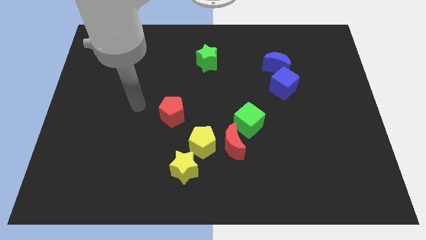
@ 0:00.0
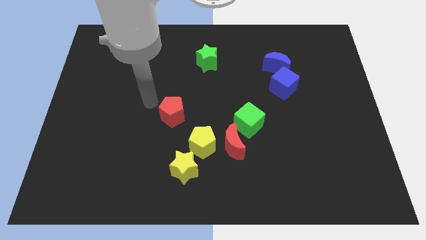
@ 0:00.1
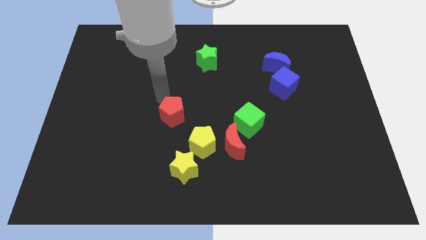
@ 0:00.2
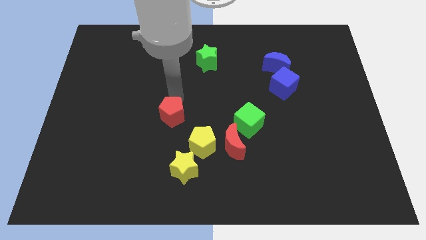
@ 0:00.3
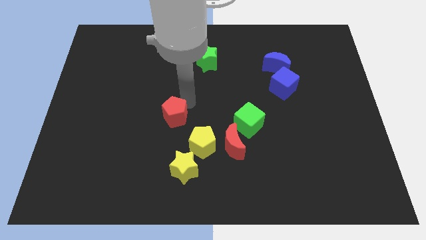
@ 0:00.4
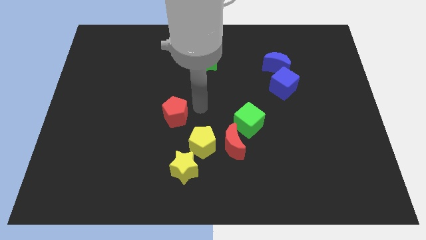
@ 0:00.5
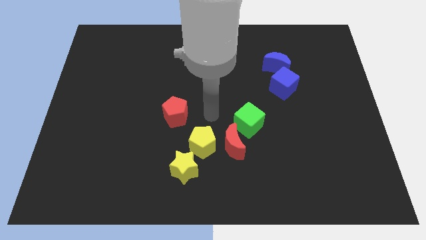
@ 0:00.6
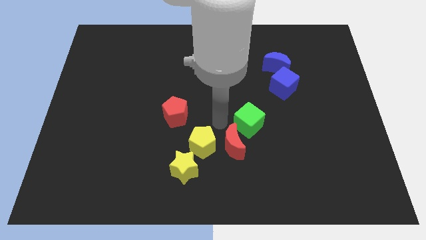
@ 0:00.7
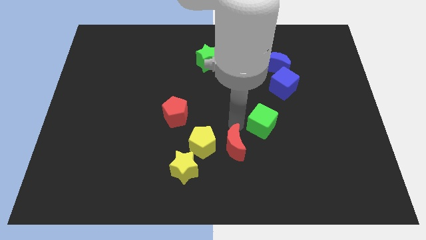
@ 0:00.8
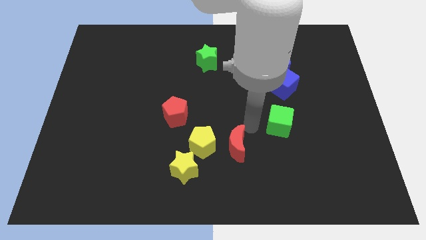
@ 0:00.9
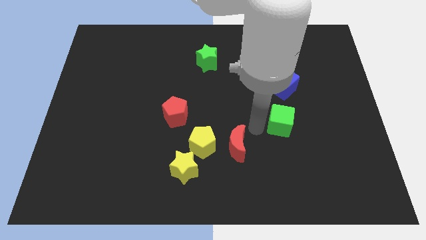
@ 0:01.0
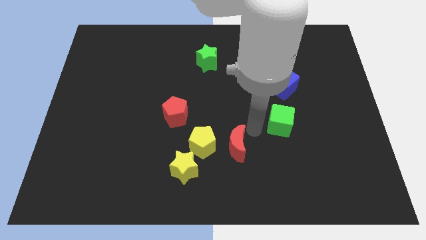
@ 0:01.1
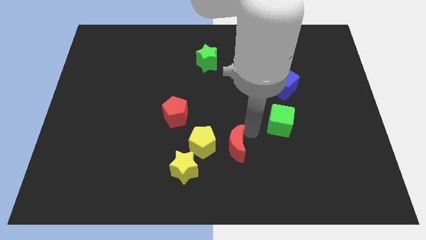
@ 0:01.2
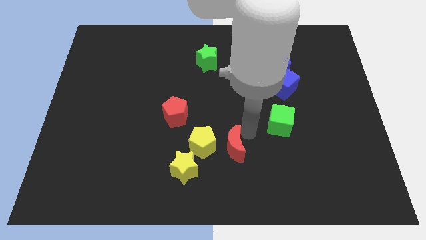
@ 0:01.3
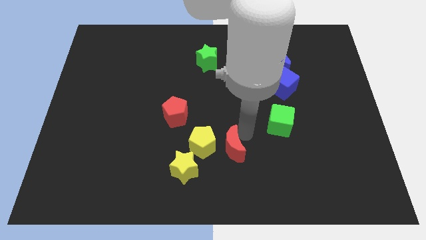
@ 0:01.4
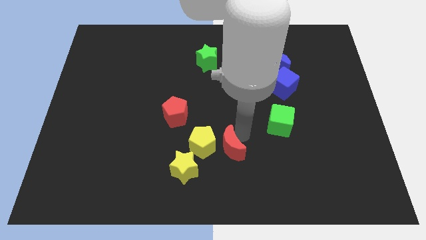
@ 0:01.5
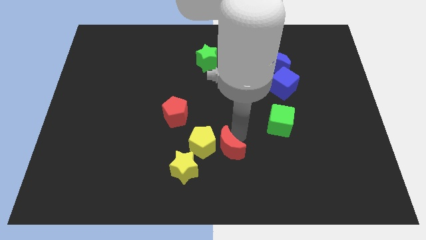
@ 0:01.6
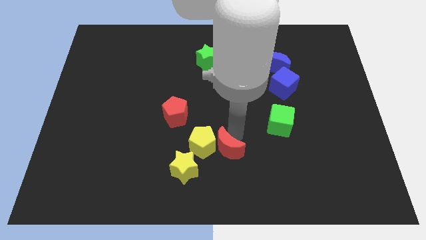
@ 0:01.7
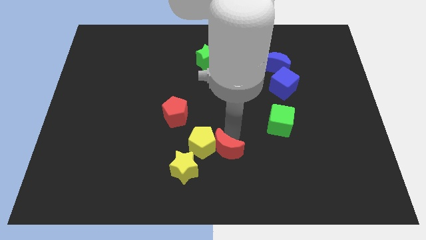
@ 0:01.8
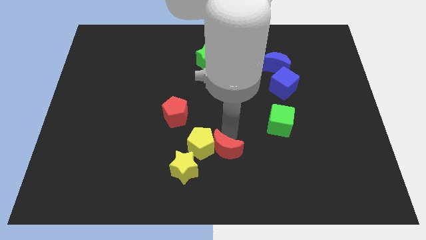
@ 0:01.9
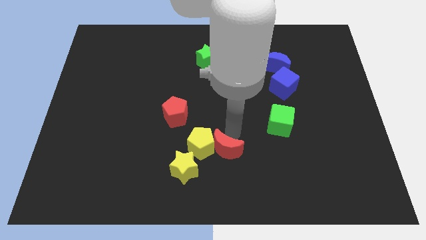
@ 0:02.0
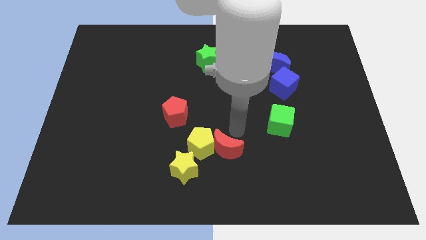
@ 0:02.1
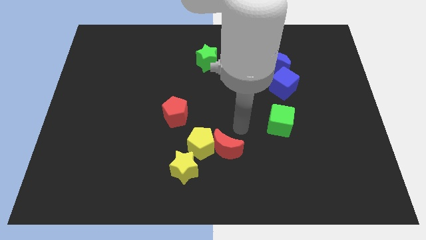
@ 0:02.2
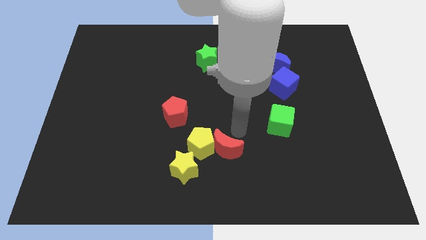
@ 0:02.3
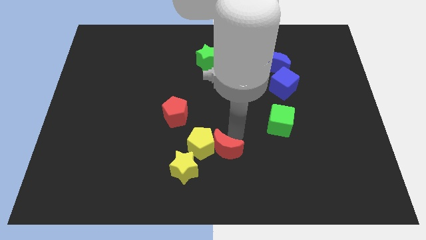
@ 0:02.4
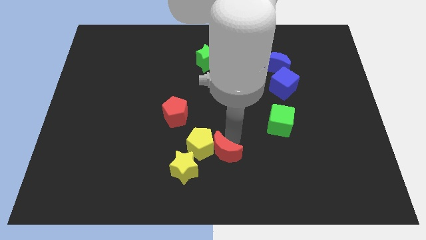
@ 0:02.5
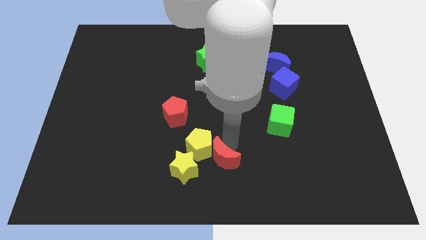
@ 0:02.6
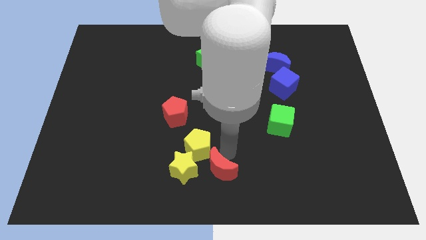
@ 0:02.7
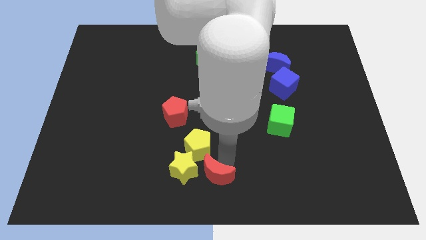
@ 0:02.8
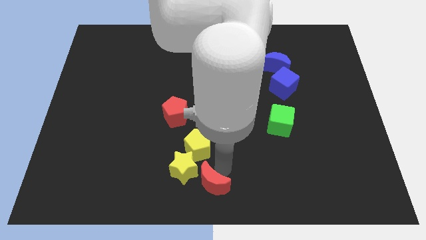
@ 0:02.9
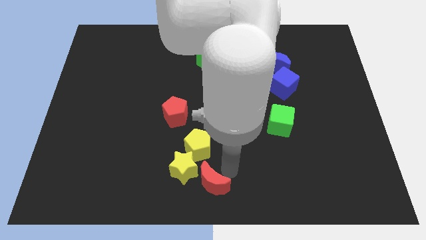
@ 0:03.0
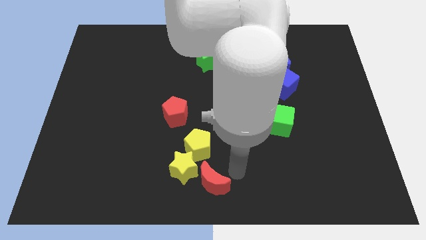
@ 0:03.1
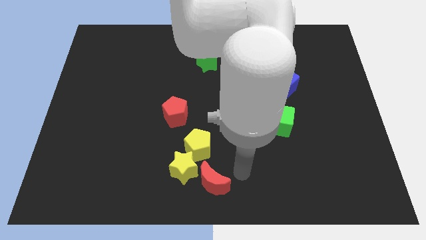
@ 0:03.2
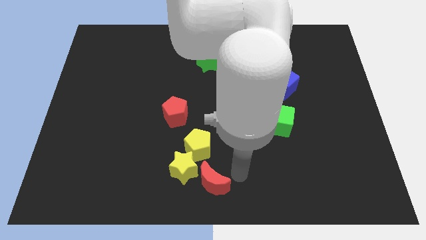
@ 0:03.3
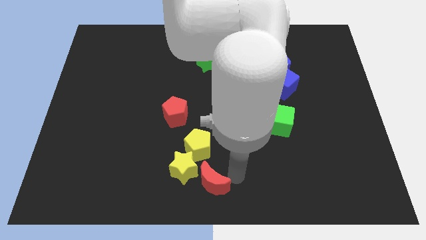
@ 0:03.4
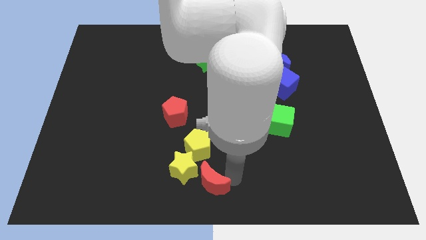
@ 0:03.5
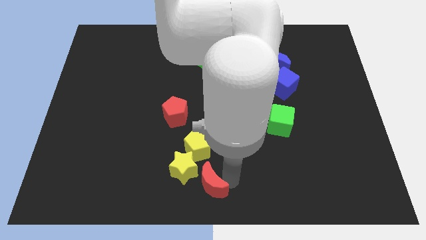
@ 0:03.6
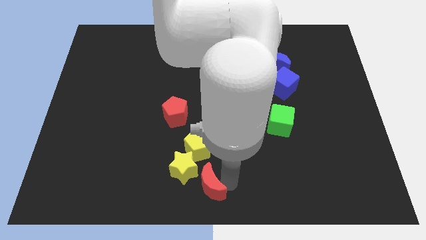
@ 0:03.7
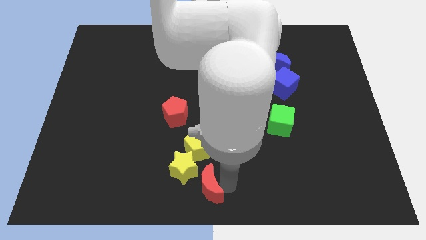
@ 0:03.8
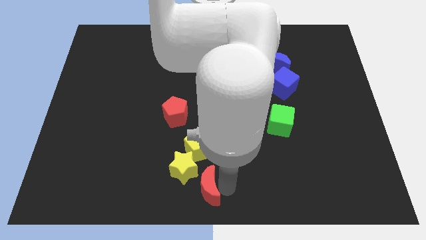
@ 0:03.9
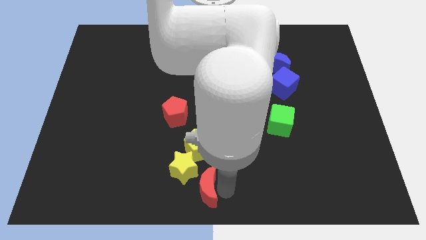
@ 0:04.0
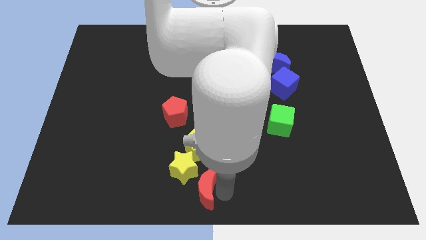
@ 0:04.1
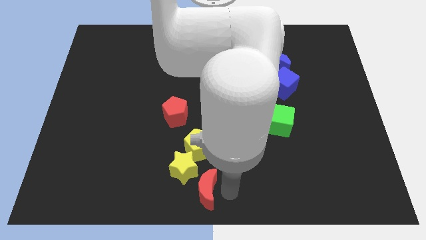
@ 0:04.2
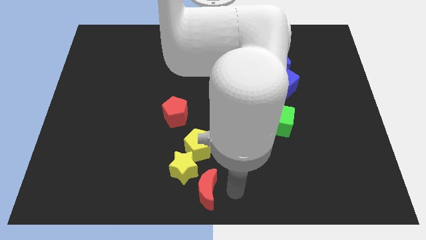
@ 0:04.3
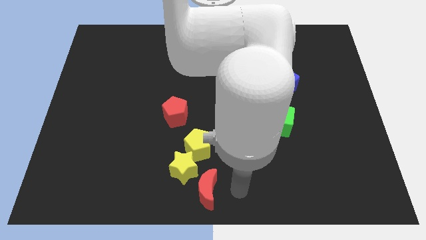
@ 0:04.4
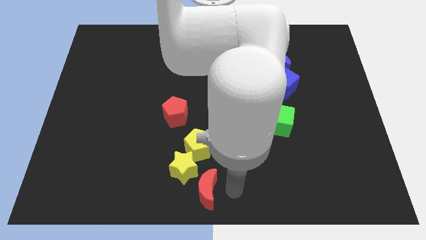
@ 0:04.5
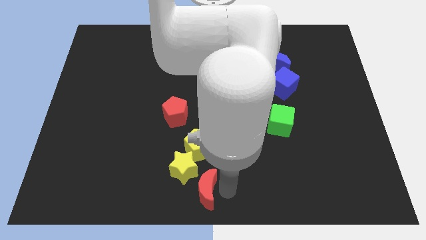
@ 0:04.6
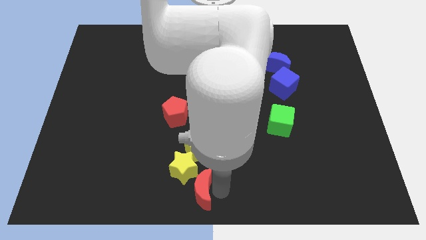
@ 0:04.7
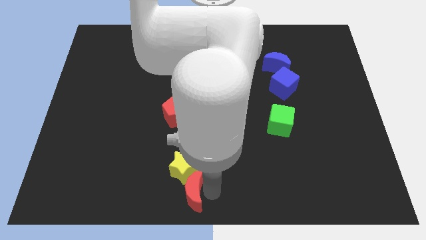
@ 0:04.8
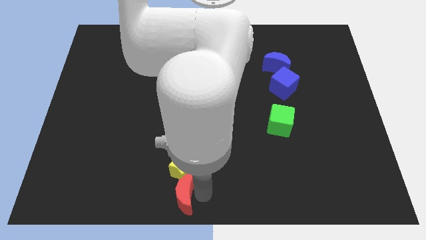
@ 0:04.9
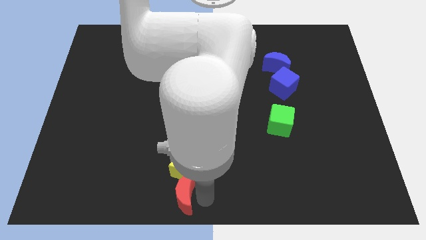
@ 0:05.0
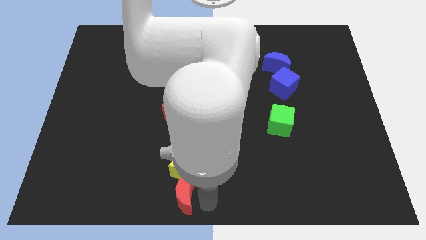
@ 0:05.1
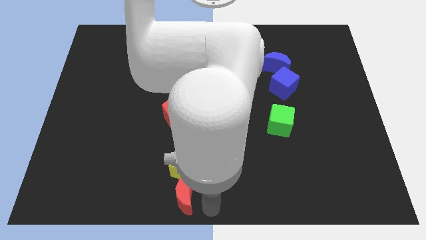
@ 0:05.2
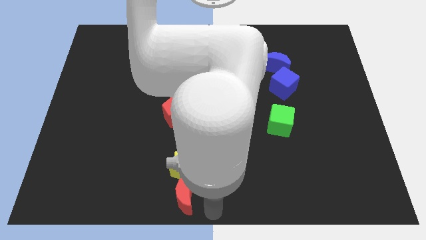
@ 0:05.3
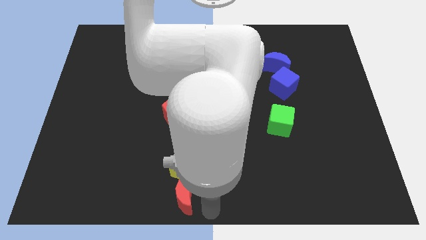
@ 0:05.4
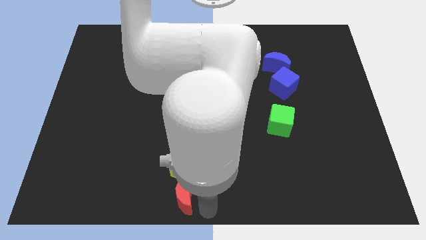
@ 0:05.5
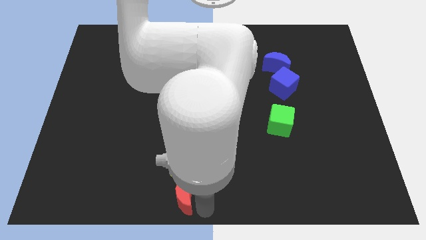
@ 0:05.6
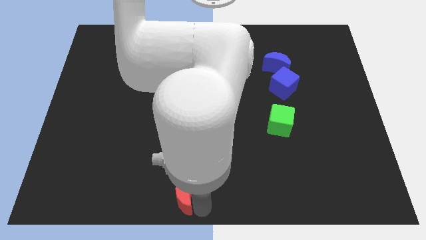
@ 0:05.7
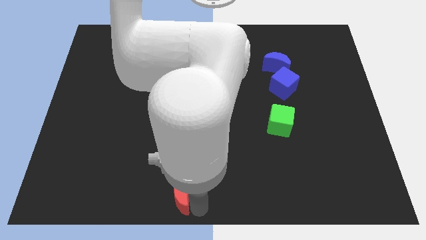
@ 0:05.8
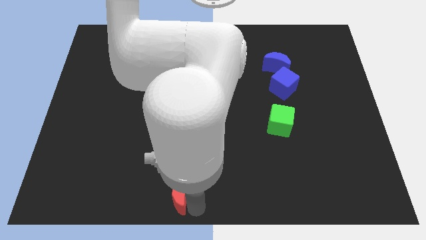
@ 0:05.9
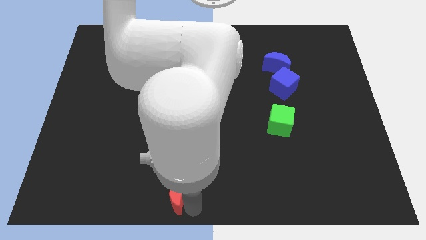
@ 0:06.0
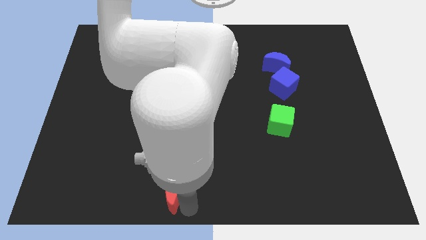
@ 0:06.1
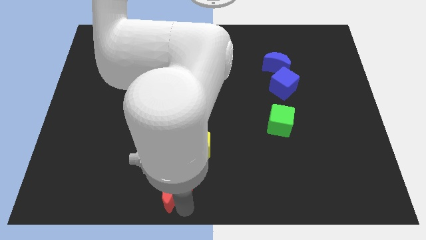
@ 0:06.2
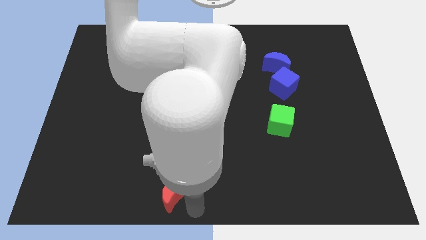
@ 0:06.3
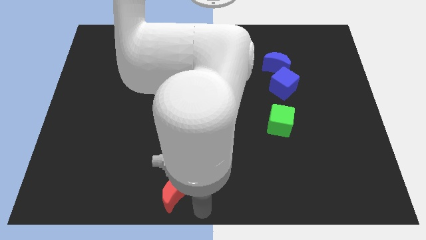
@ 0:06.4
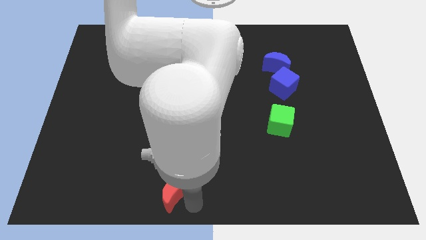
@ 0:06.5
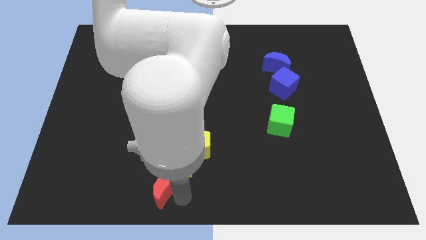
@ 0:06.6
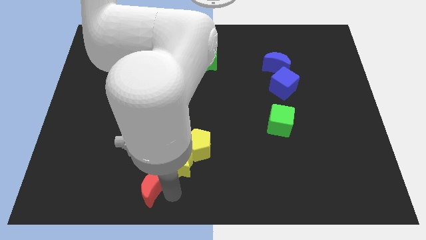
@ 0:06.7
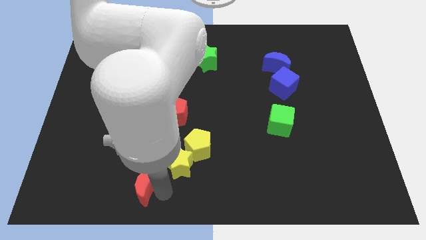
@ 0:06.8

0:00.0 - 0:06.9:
move the red moon left of the yellow star
